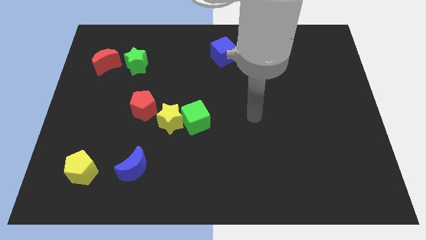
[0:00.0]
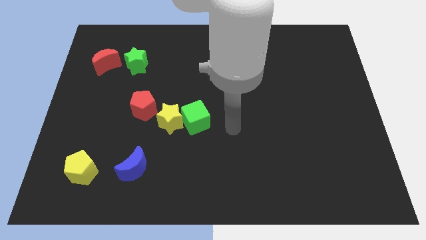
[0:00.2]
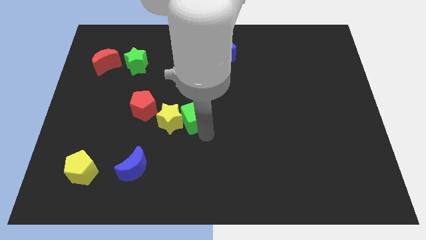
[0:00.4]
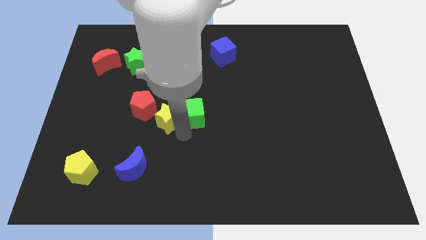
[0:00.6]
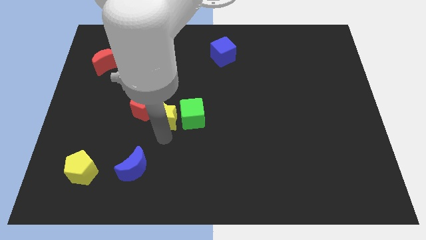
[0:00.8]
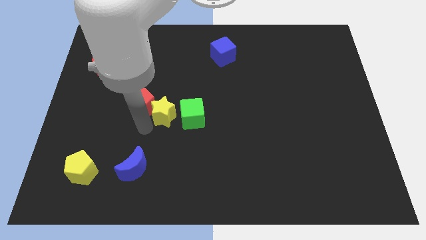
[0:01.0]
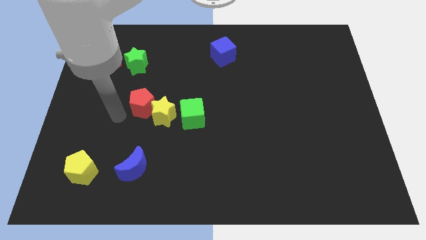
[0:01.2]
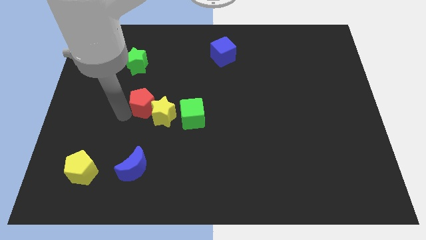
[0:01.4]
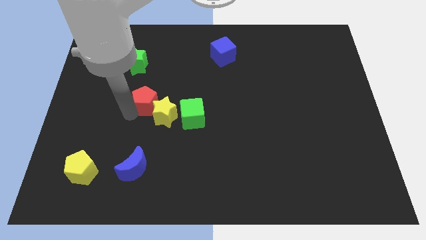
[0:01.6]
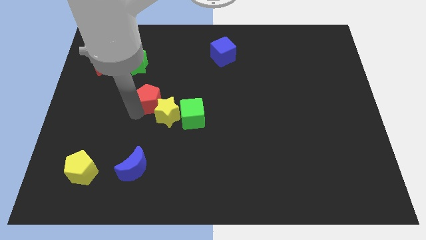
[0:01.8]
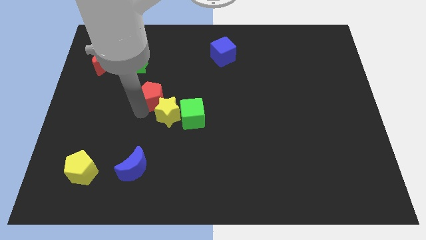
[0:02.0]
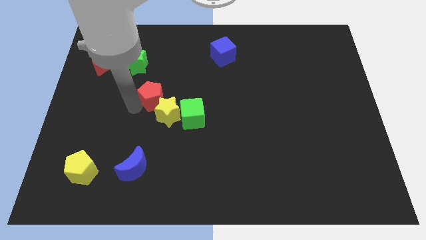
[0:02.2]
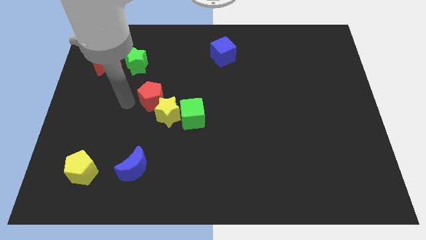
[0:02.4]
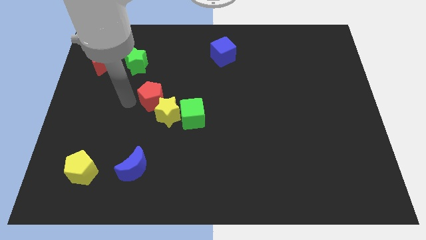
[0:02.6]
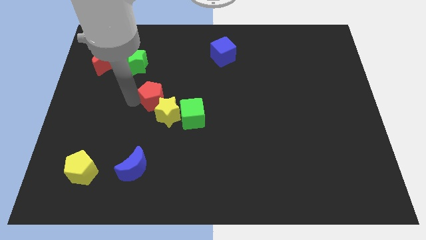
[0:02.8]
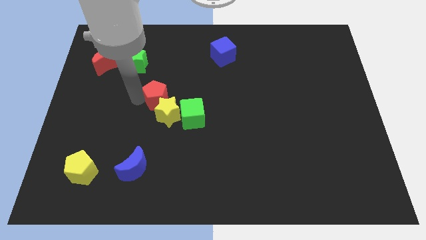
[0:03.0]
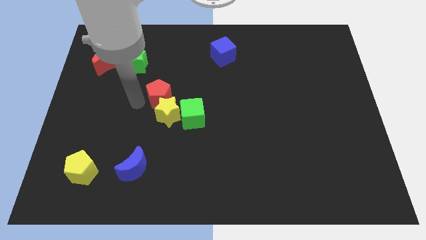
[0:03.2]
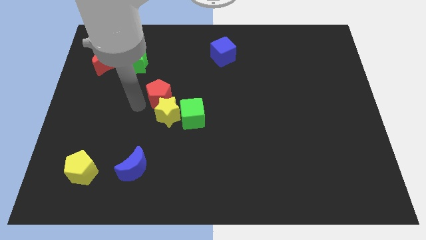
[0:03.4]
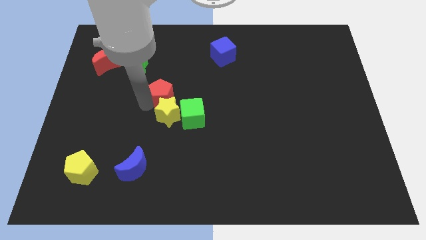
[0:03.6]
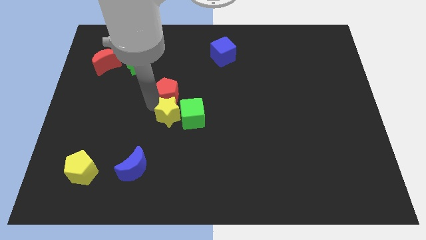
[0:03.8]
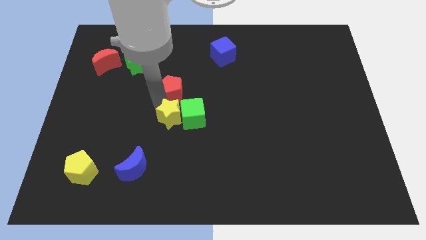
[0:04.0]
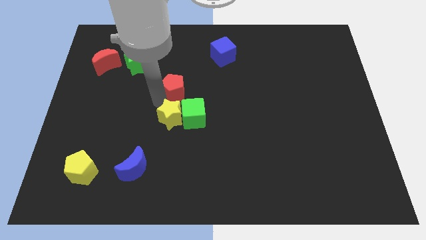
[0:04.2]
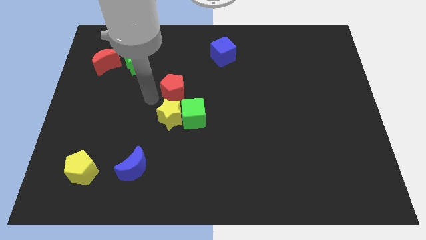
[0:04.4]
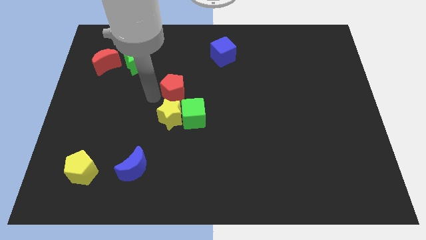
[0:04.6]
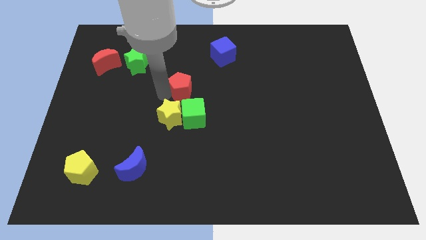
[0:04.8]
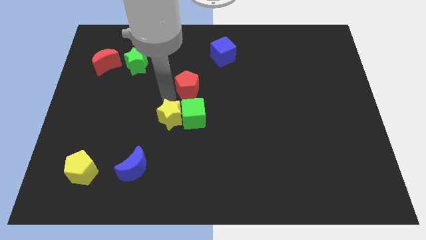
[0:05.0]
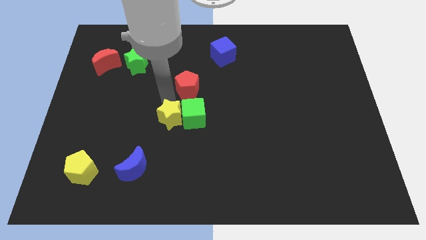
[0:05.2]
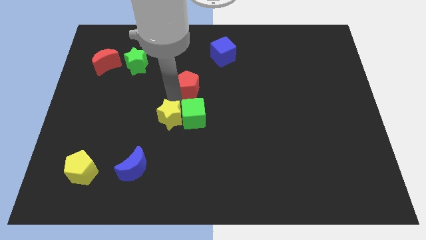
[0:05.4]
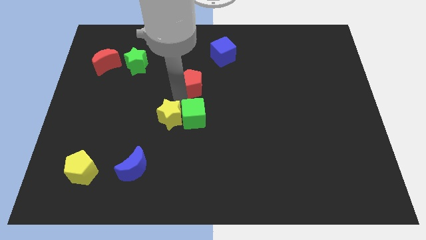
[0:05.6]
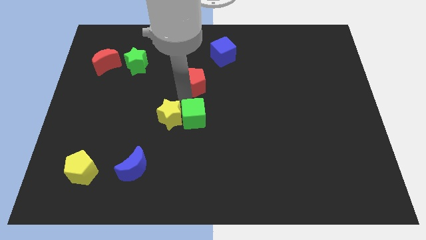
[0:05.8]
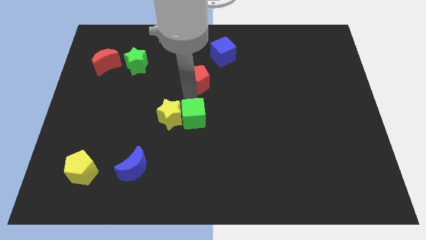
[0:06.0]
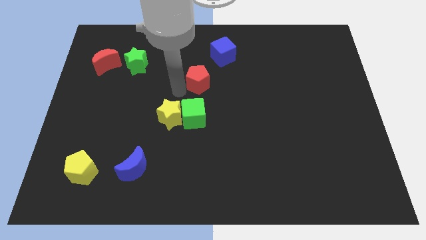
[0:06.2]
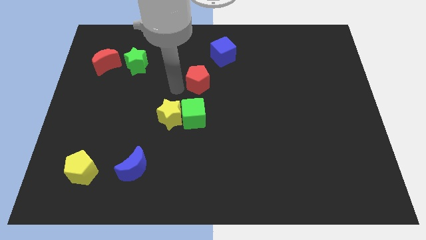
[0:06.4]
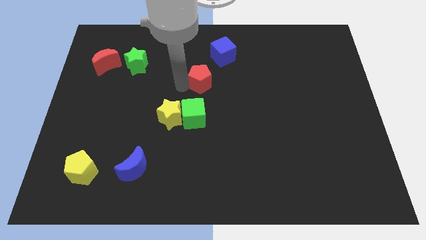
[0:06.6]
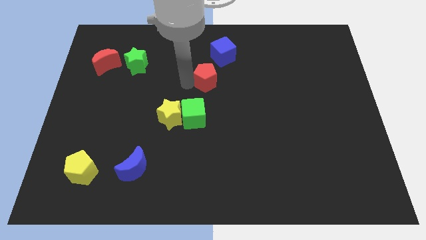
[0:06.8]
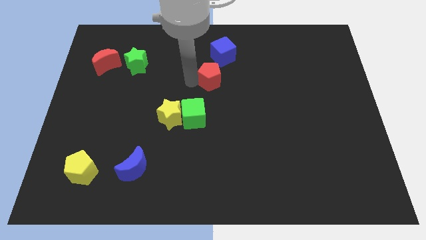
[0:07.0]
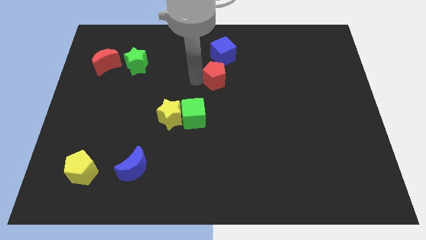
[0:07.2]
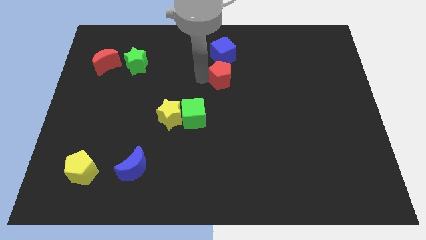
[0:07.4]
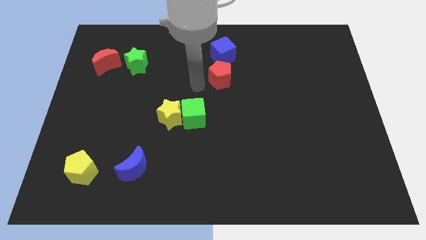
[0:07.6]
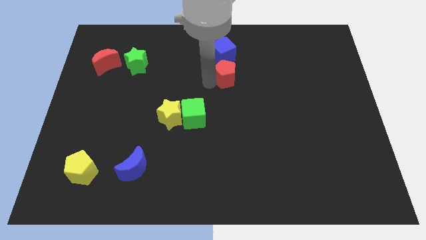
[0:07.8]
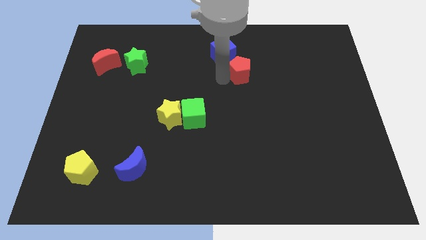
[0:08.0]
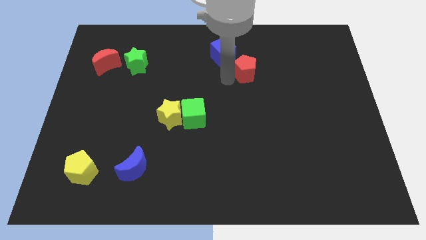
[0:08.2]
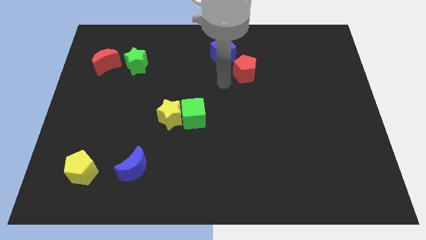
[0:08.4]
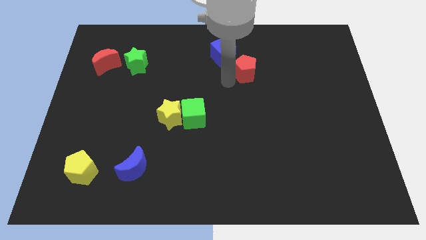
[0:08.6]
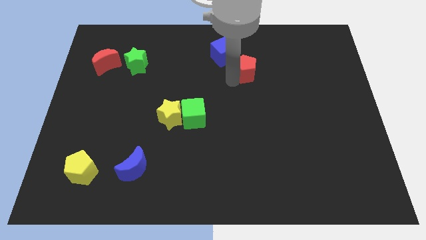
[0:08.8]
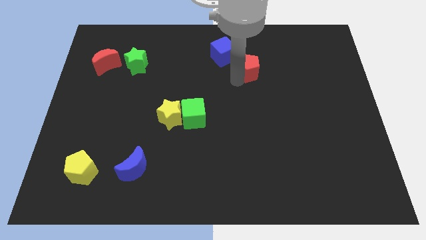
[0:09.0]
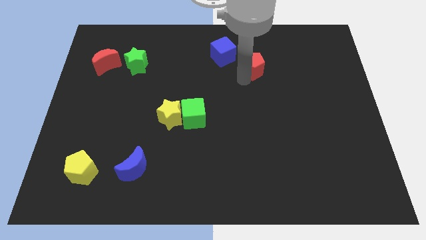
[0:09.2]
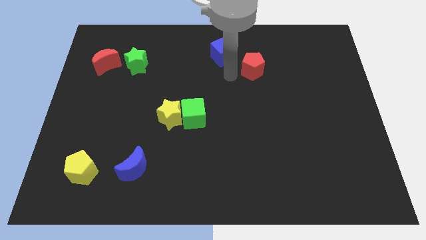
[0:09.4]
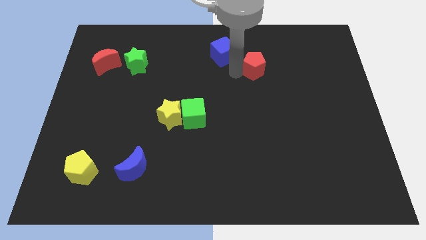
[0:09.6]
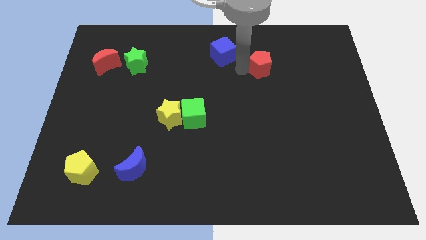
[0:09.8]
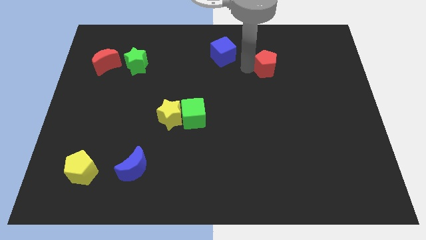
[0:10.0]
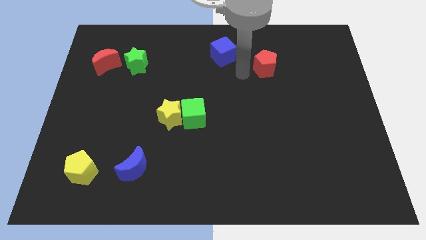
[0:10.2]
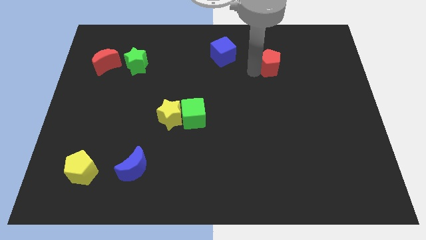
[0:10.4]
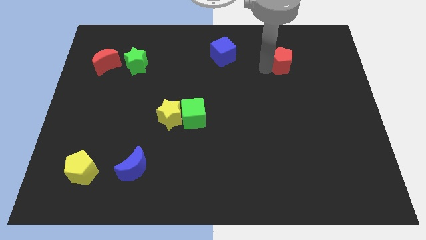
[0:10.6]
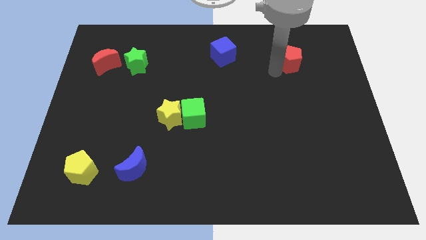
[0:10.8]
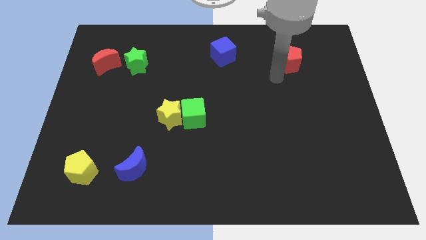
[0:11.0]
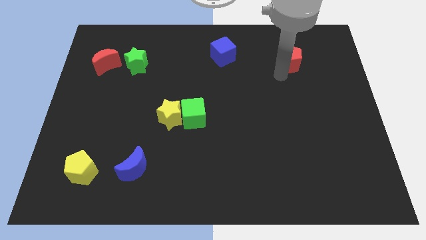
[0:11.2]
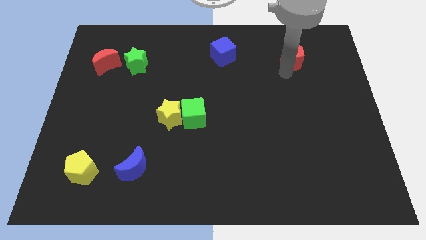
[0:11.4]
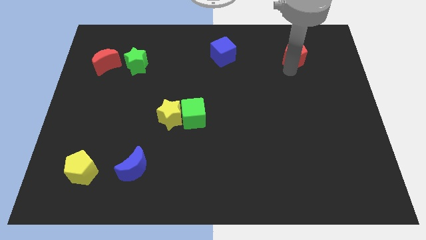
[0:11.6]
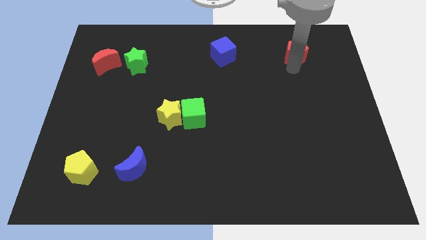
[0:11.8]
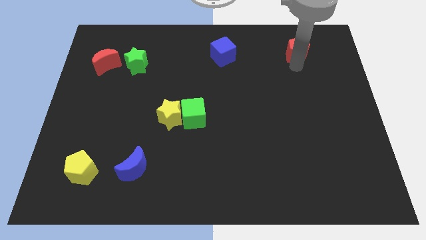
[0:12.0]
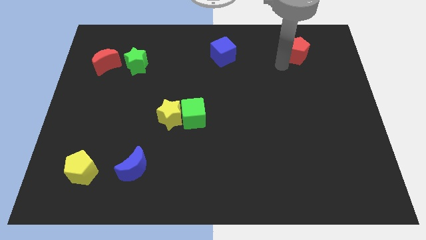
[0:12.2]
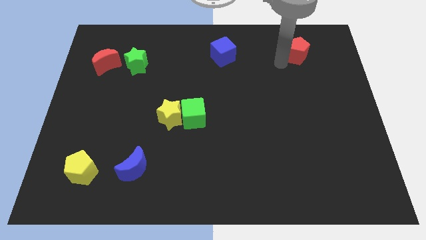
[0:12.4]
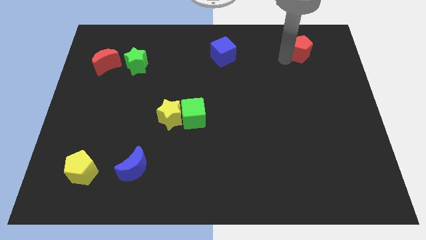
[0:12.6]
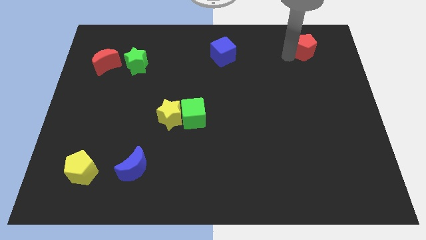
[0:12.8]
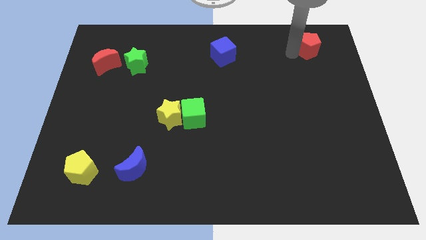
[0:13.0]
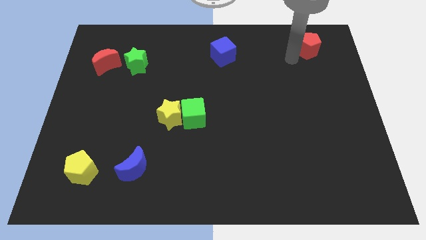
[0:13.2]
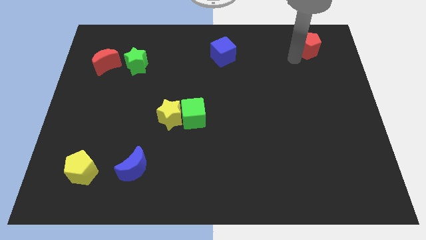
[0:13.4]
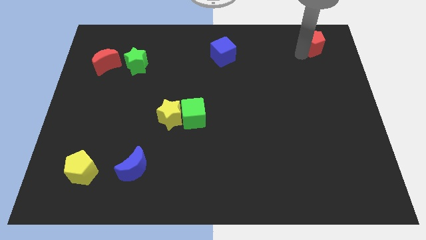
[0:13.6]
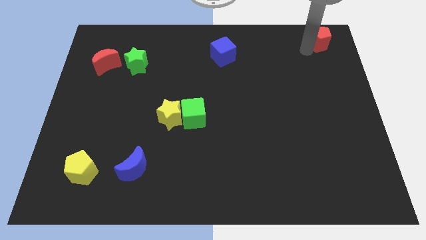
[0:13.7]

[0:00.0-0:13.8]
put the red pentagon to the top right
